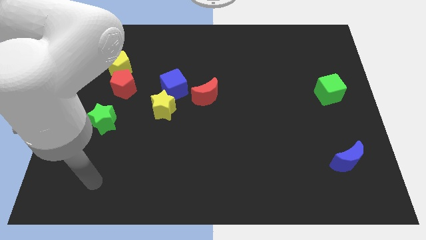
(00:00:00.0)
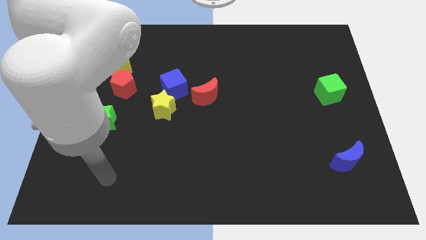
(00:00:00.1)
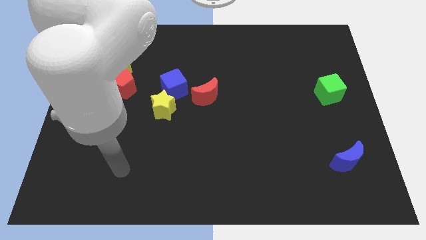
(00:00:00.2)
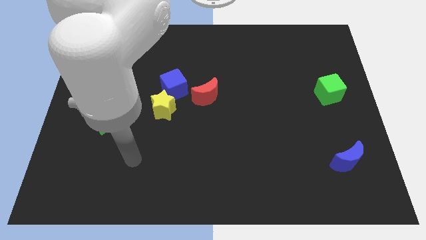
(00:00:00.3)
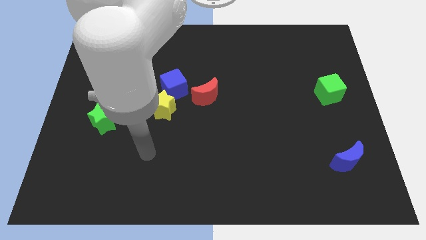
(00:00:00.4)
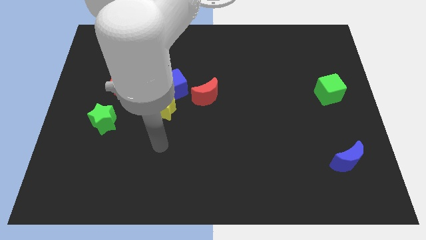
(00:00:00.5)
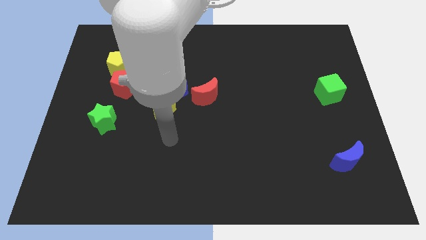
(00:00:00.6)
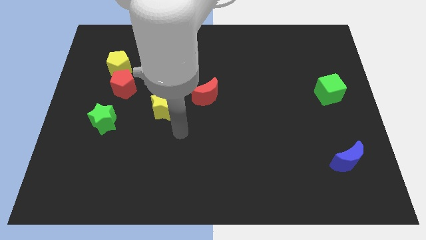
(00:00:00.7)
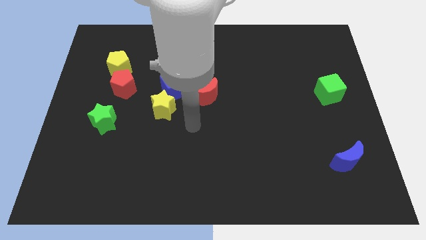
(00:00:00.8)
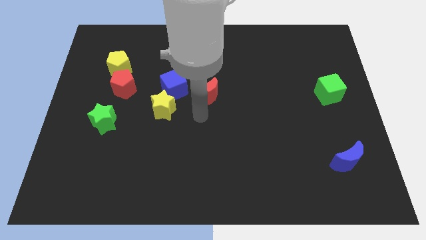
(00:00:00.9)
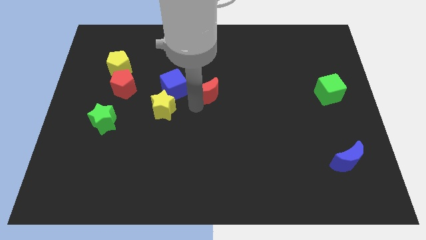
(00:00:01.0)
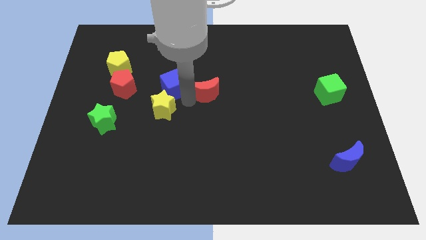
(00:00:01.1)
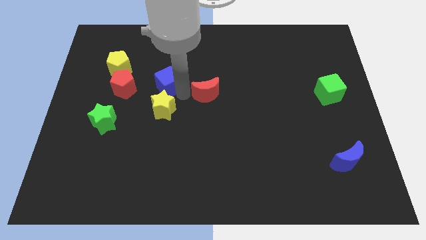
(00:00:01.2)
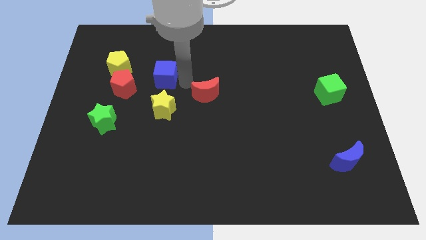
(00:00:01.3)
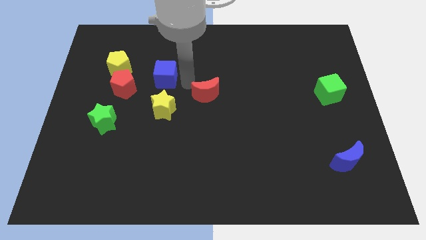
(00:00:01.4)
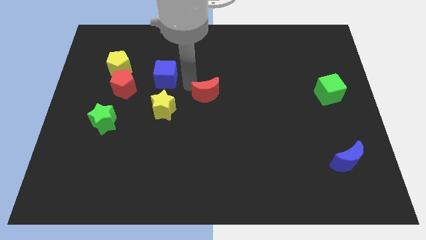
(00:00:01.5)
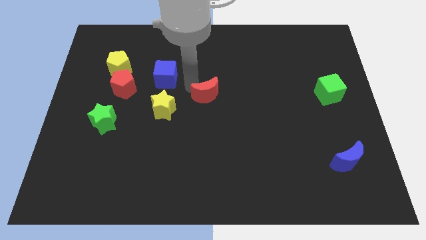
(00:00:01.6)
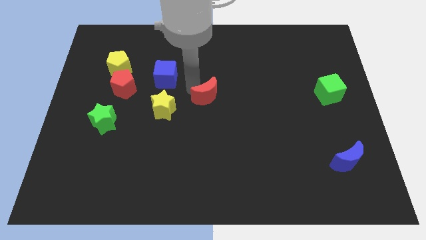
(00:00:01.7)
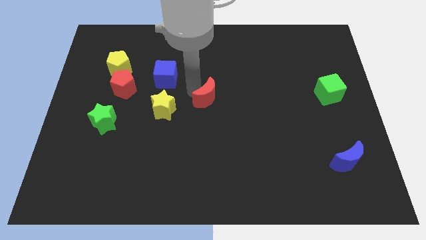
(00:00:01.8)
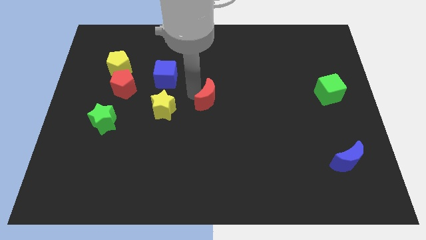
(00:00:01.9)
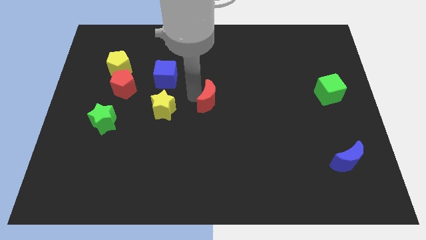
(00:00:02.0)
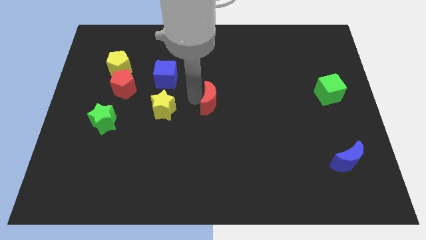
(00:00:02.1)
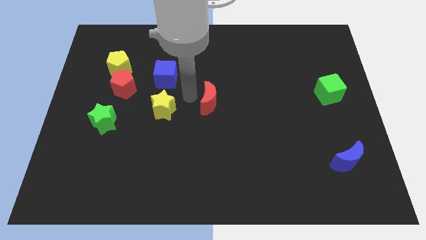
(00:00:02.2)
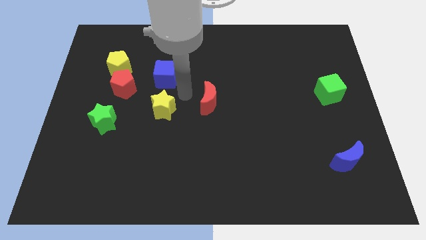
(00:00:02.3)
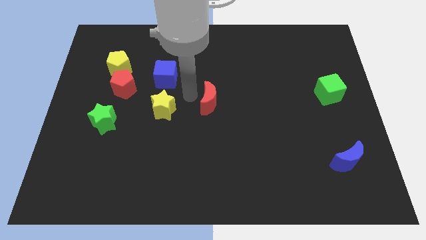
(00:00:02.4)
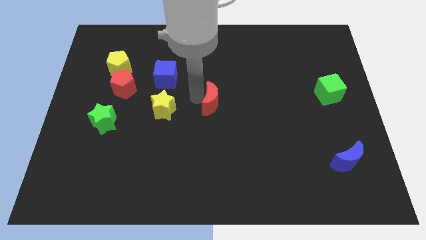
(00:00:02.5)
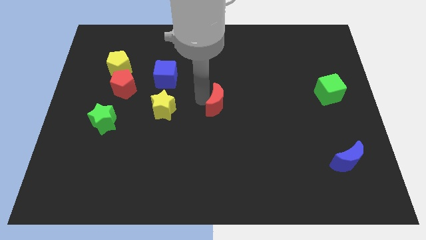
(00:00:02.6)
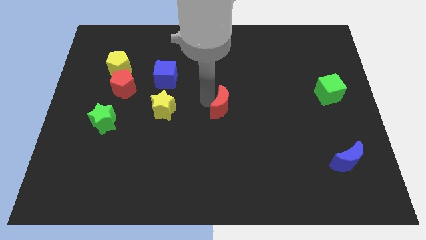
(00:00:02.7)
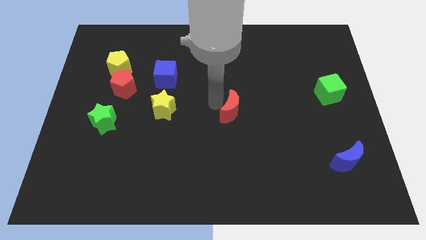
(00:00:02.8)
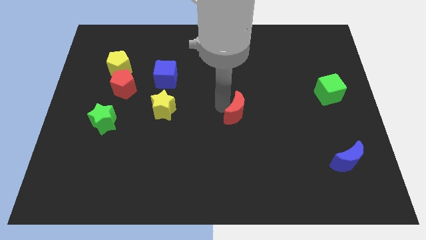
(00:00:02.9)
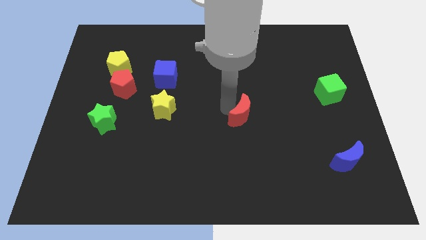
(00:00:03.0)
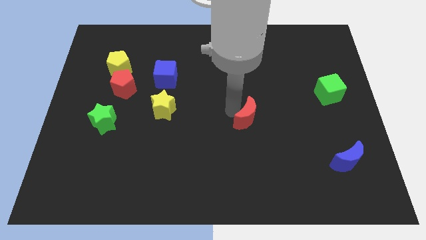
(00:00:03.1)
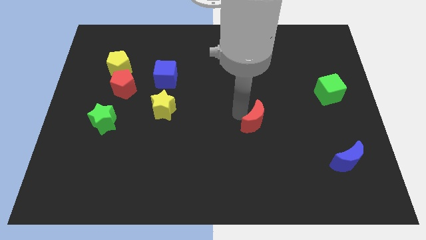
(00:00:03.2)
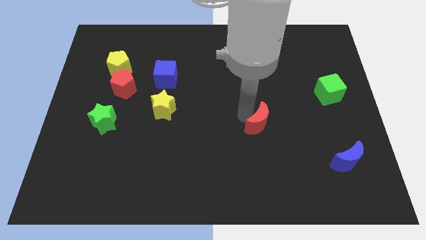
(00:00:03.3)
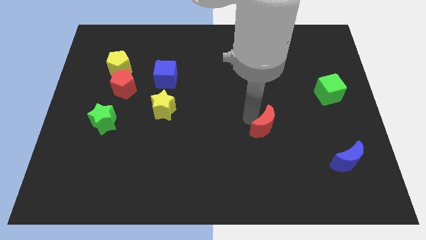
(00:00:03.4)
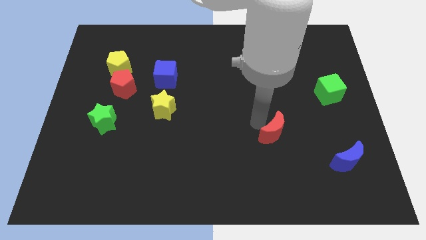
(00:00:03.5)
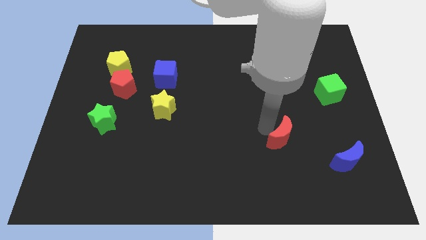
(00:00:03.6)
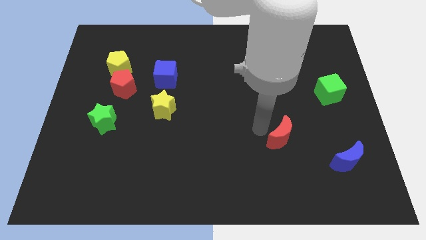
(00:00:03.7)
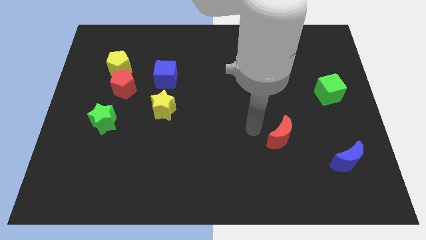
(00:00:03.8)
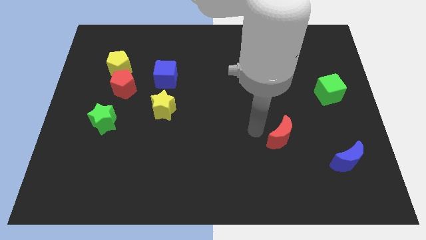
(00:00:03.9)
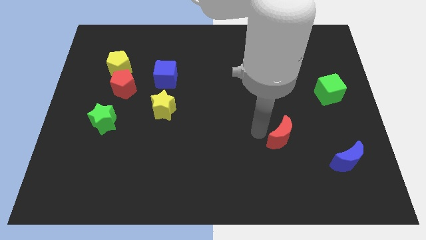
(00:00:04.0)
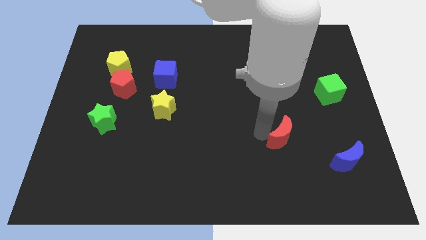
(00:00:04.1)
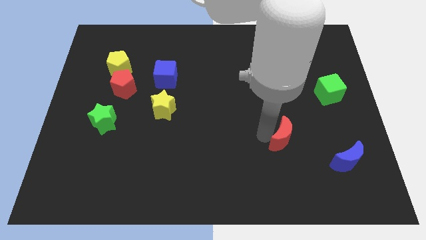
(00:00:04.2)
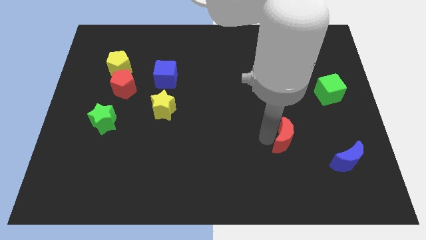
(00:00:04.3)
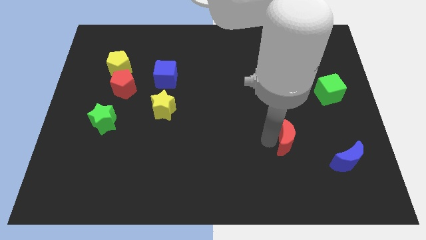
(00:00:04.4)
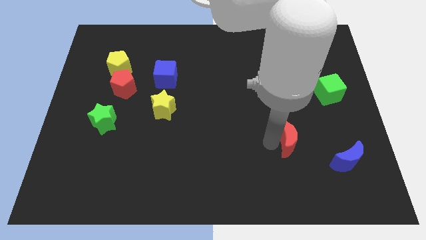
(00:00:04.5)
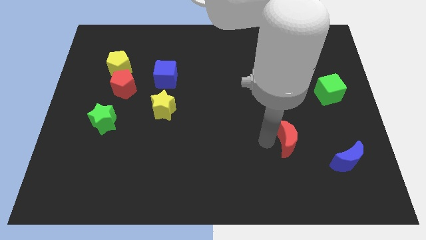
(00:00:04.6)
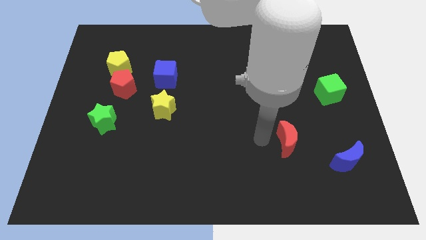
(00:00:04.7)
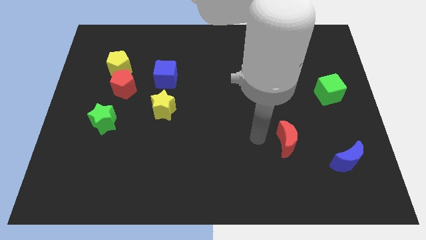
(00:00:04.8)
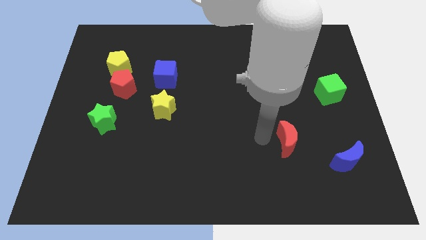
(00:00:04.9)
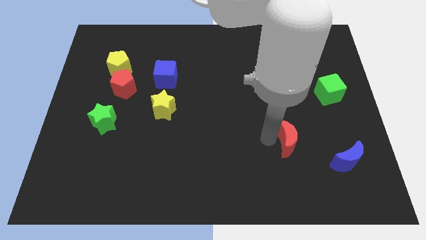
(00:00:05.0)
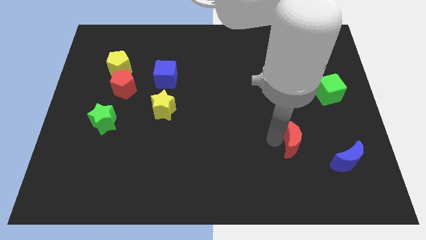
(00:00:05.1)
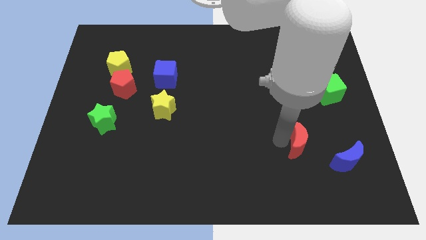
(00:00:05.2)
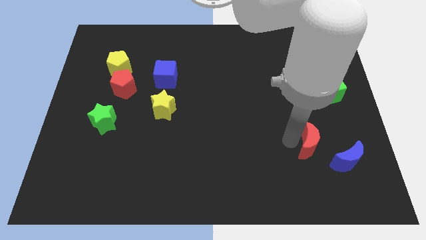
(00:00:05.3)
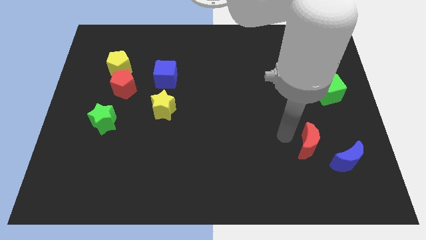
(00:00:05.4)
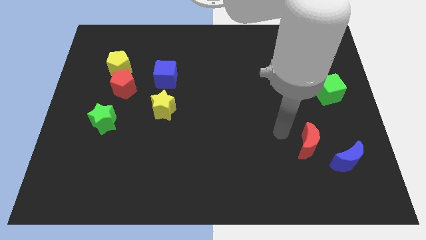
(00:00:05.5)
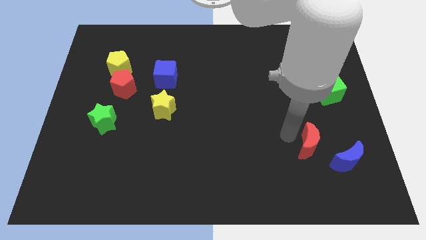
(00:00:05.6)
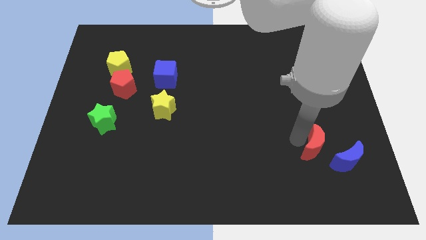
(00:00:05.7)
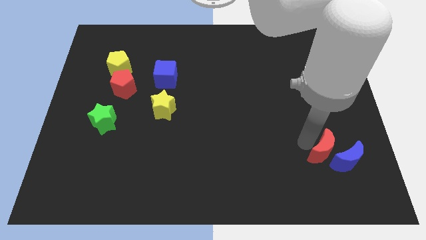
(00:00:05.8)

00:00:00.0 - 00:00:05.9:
slide the red moon close to the blue moon

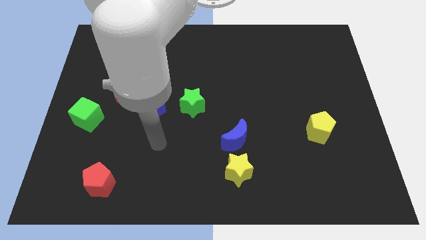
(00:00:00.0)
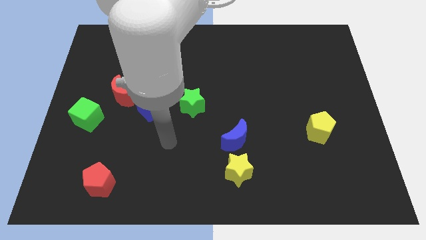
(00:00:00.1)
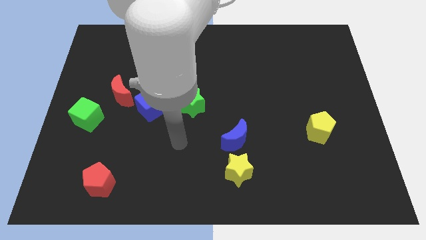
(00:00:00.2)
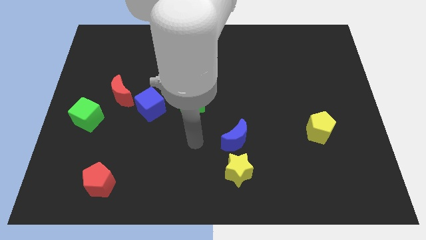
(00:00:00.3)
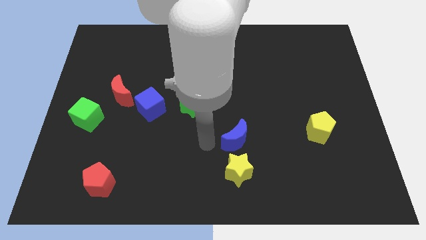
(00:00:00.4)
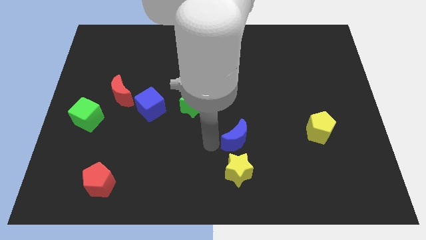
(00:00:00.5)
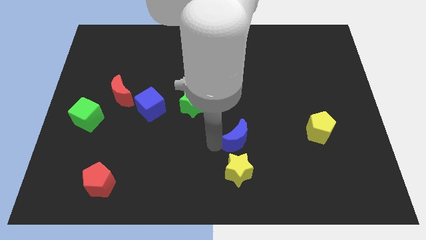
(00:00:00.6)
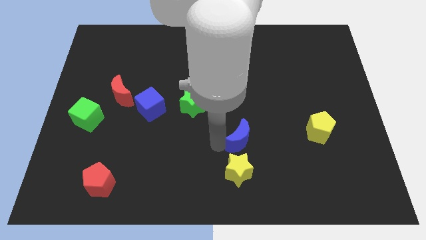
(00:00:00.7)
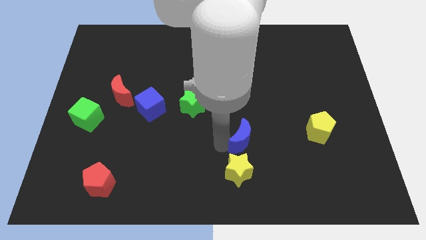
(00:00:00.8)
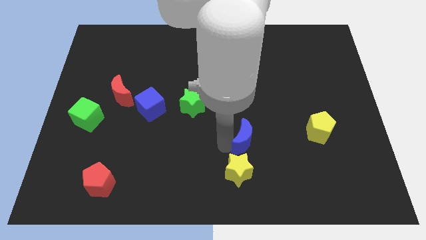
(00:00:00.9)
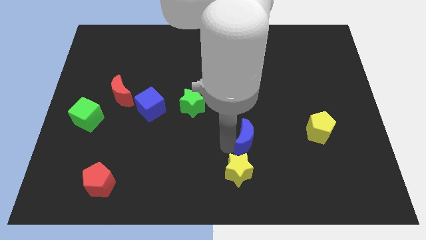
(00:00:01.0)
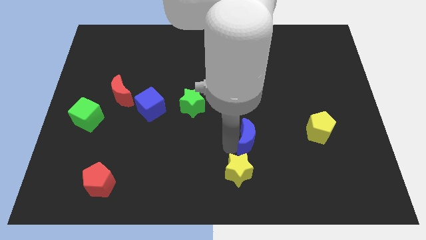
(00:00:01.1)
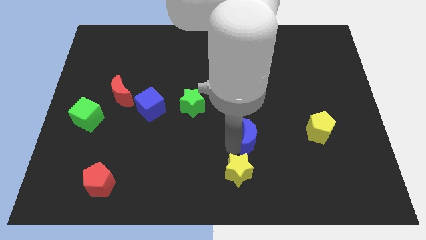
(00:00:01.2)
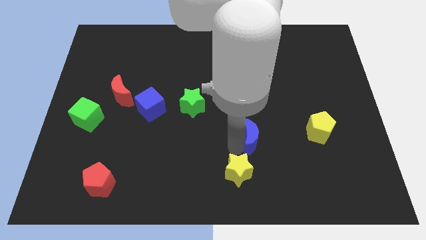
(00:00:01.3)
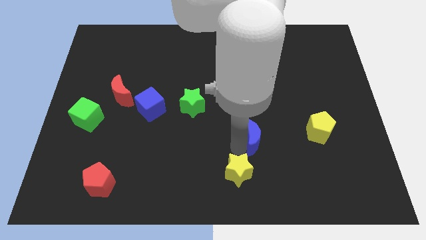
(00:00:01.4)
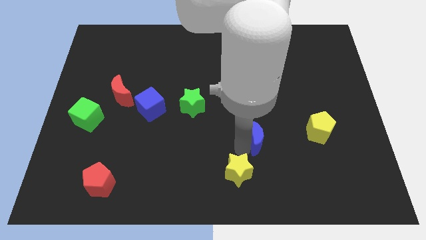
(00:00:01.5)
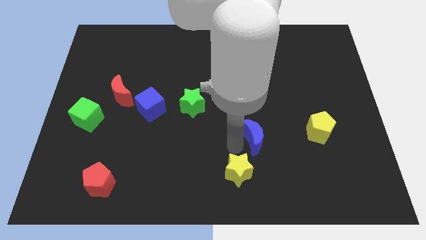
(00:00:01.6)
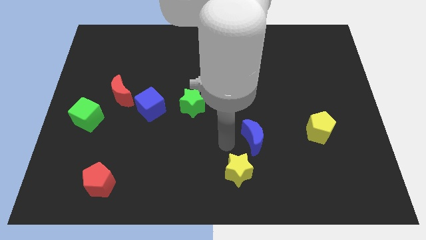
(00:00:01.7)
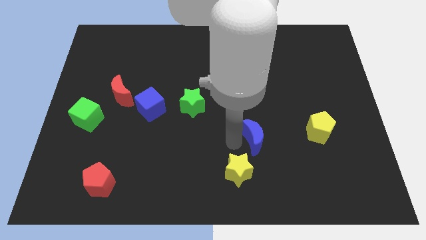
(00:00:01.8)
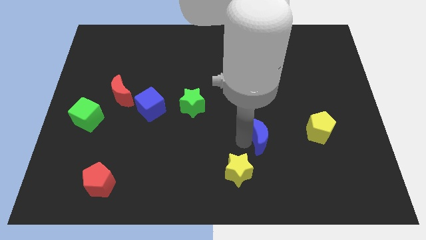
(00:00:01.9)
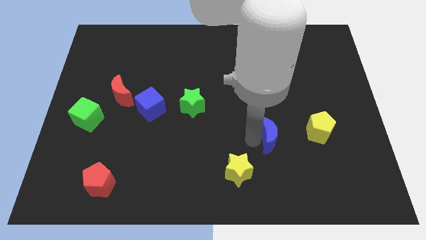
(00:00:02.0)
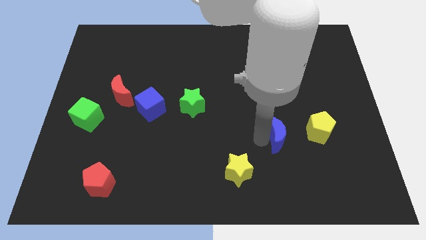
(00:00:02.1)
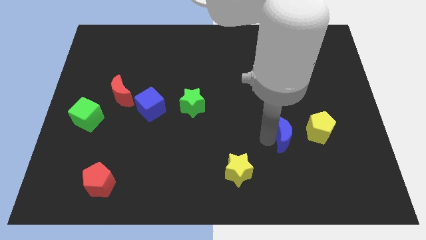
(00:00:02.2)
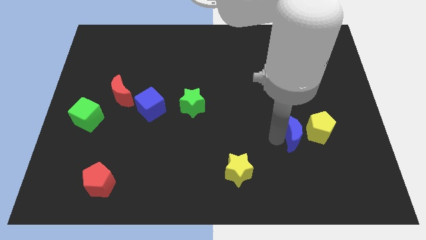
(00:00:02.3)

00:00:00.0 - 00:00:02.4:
slide the blue moon next to the yellow pentagon
